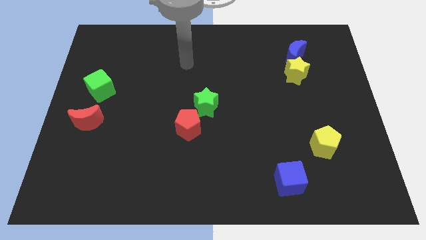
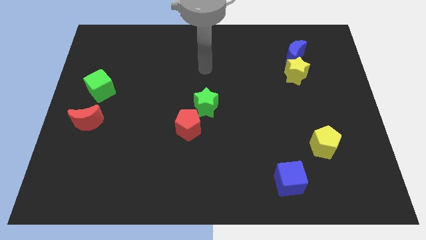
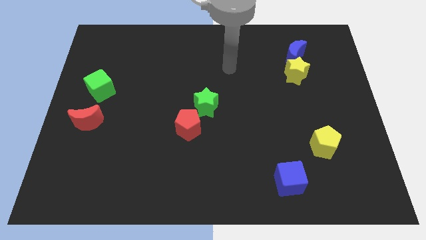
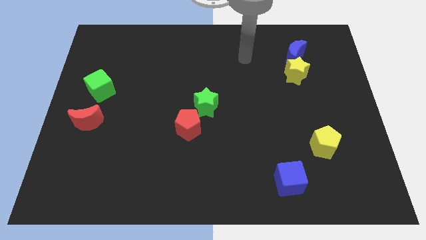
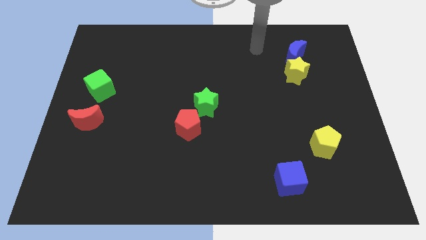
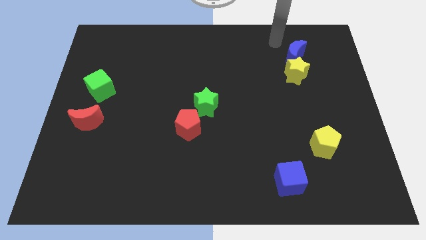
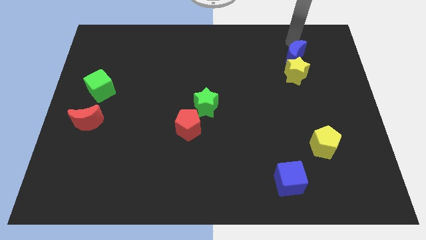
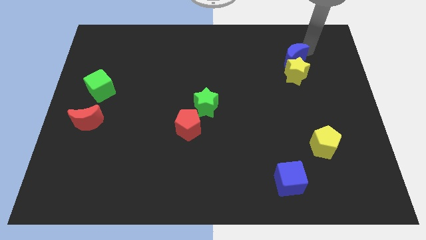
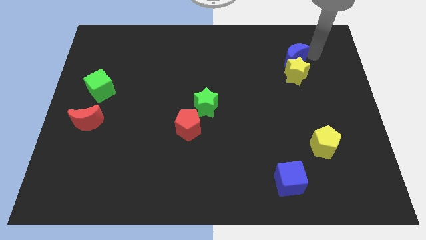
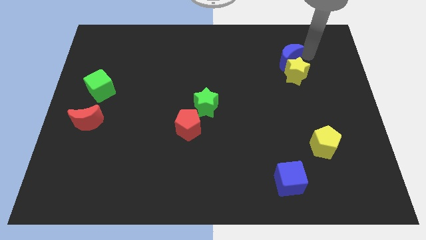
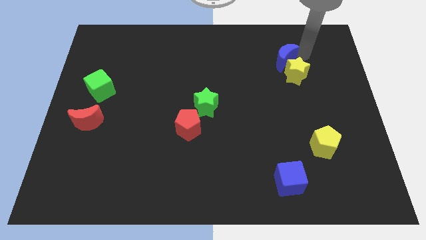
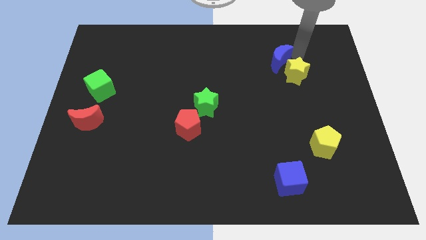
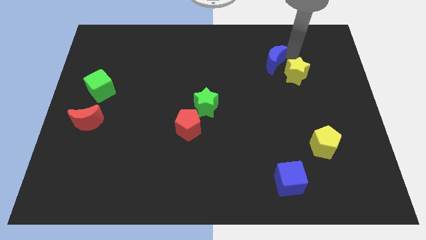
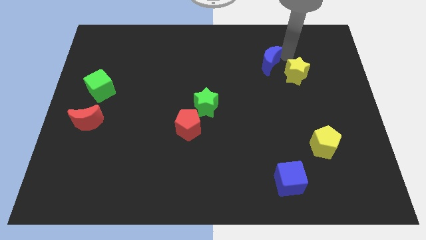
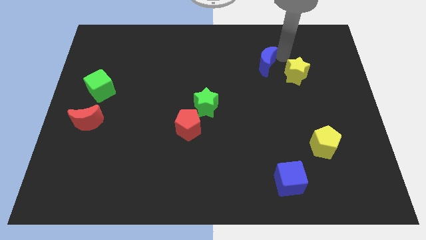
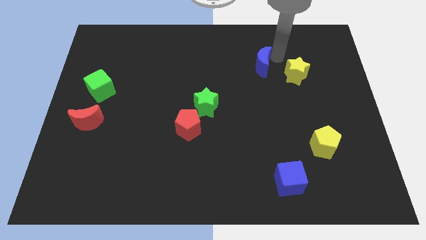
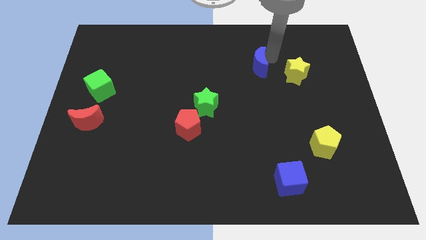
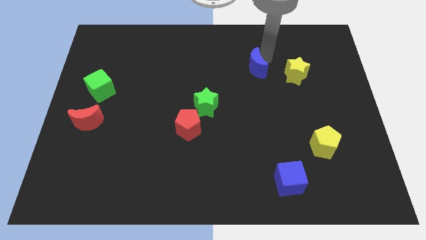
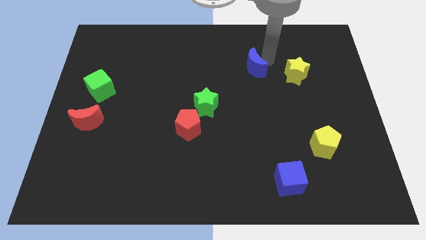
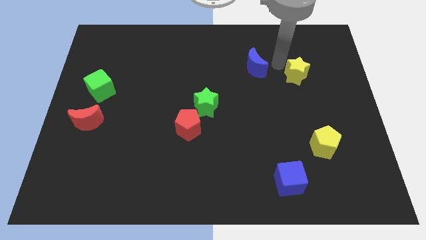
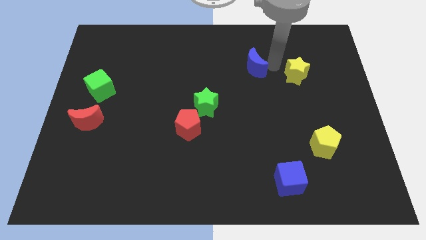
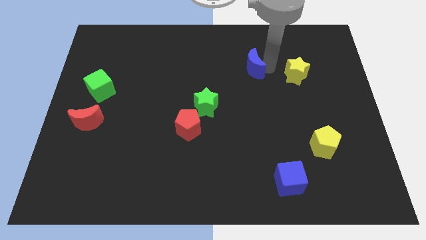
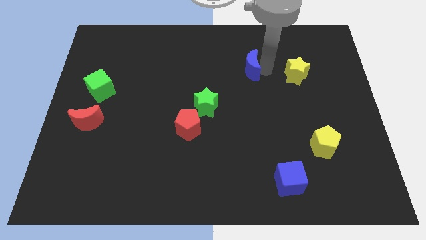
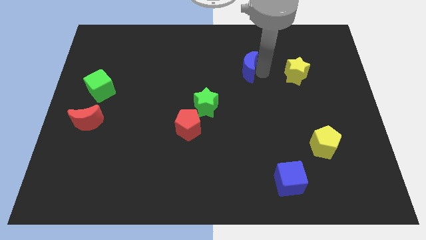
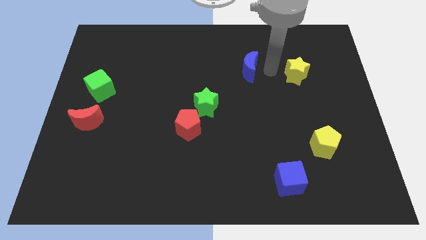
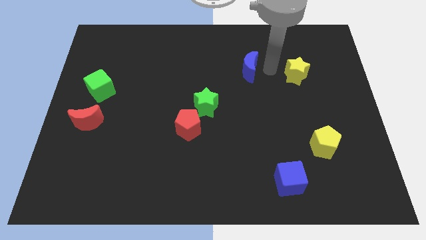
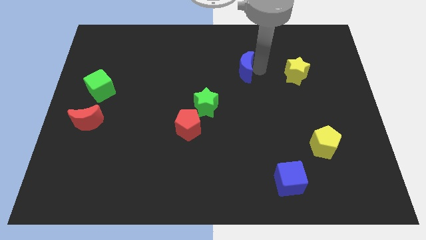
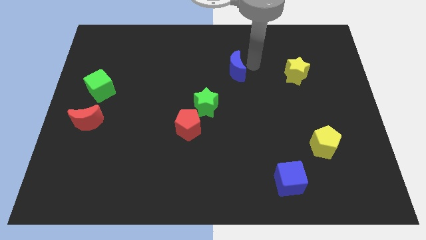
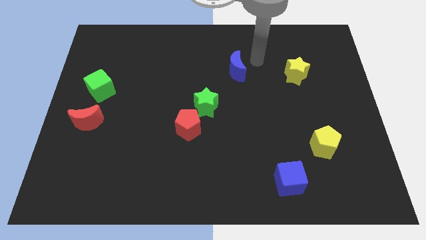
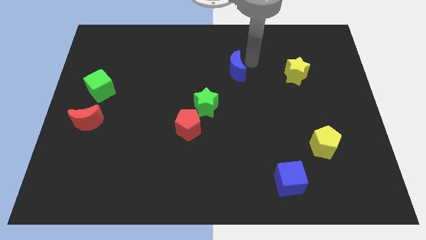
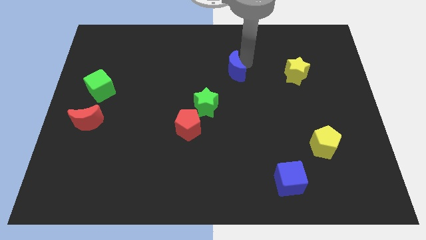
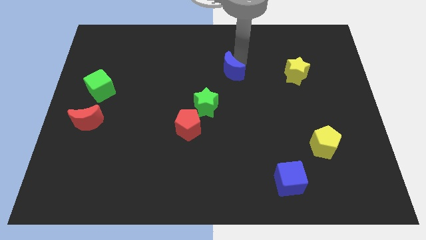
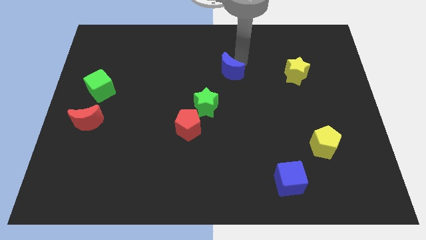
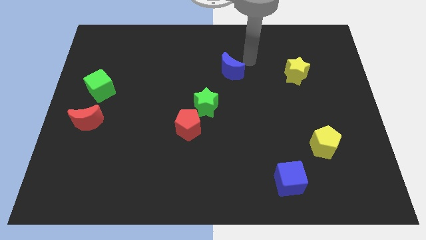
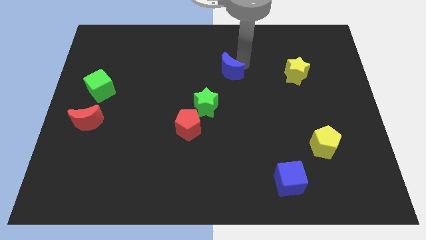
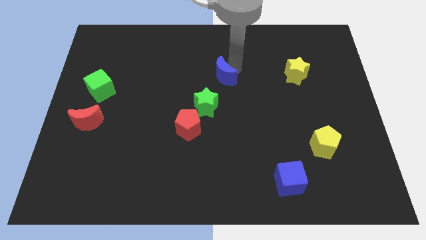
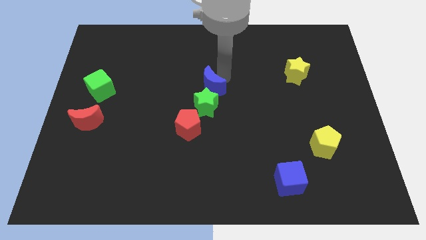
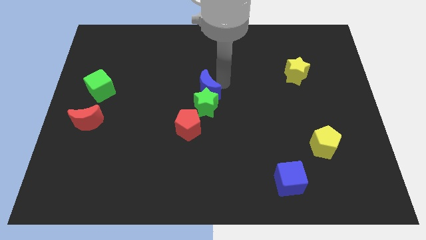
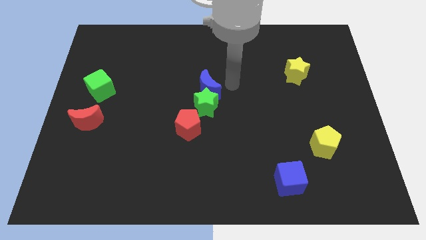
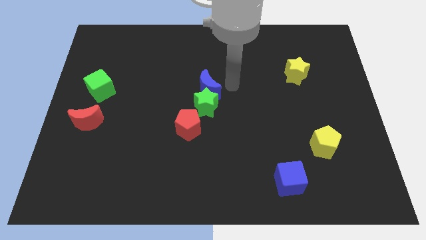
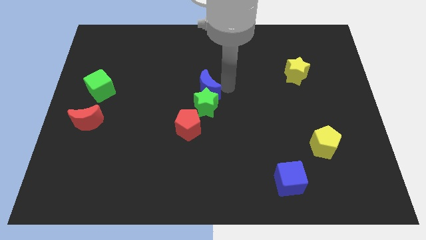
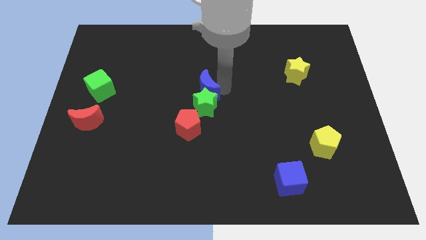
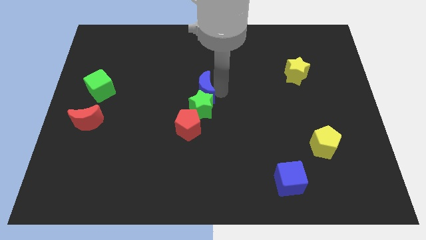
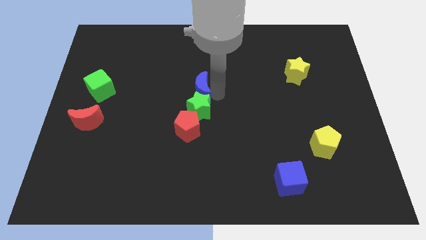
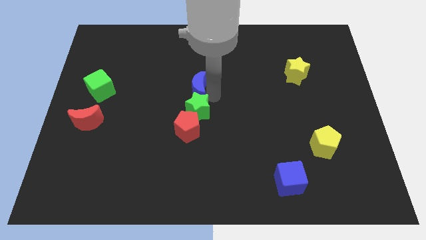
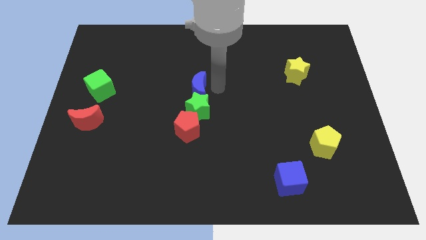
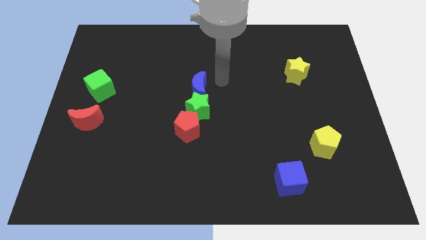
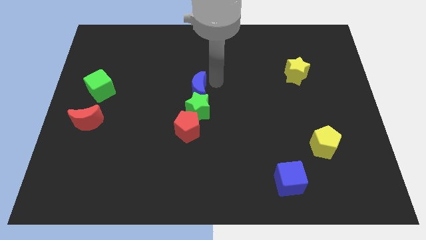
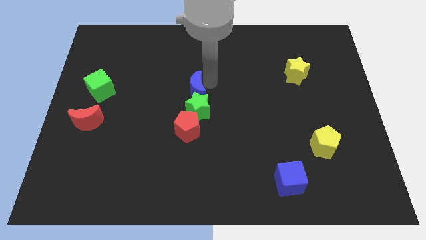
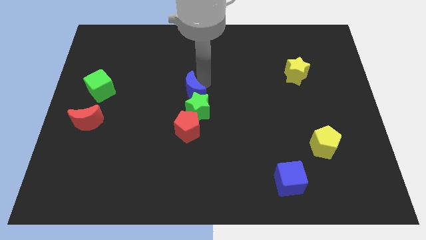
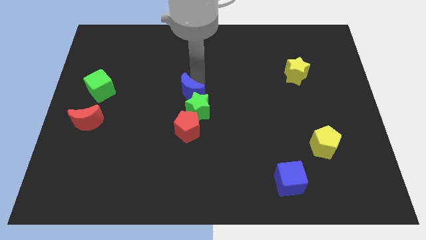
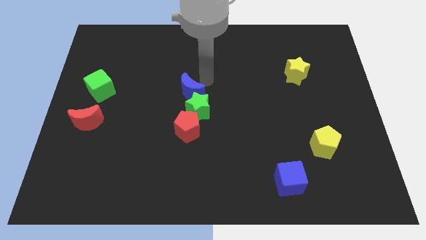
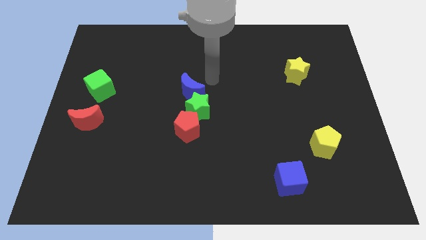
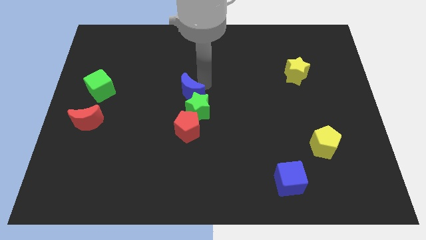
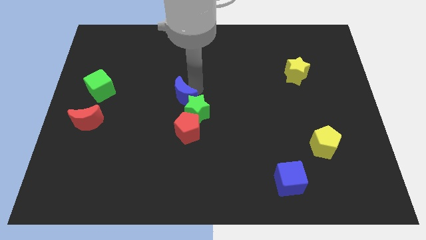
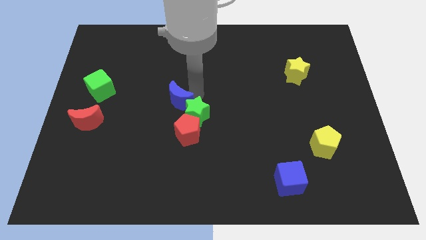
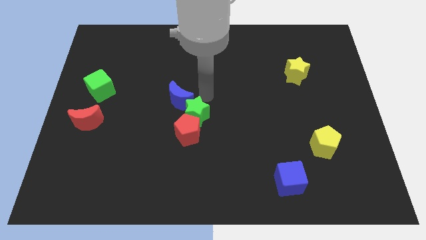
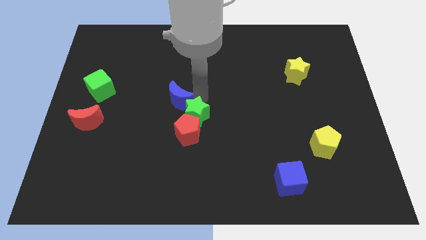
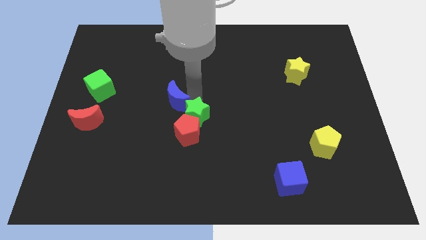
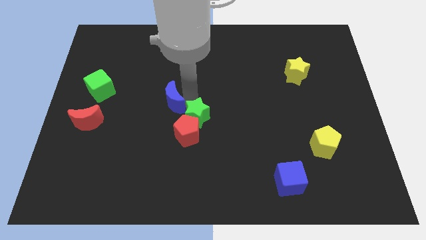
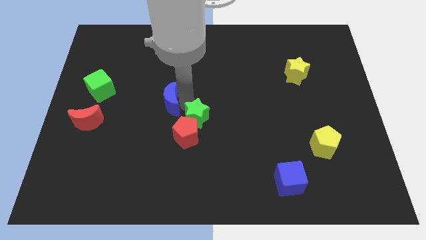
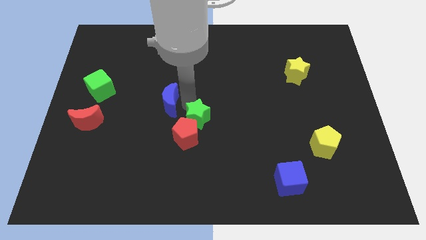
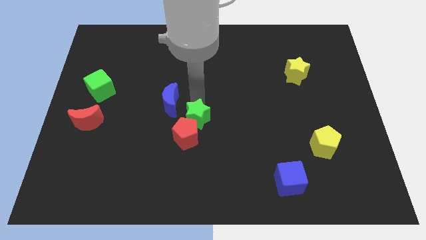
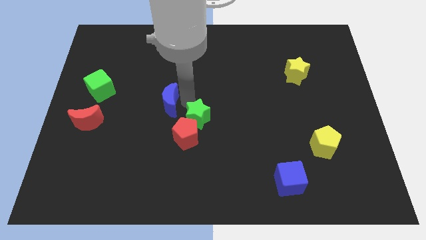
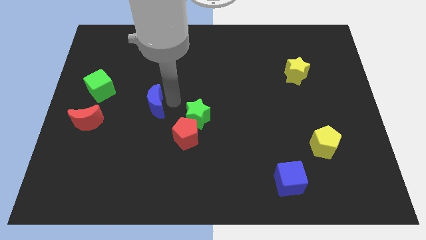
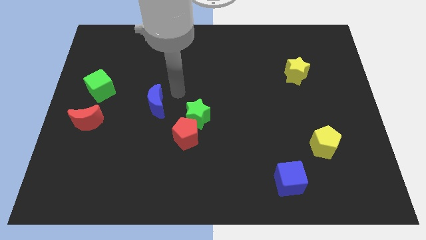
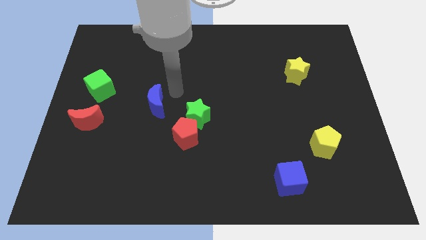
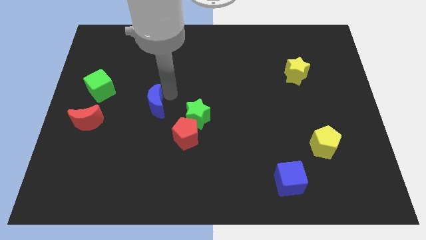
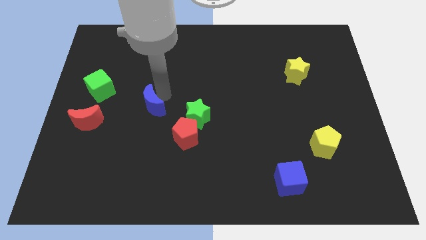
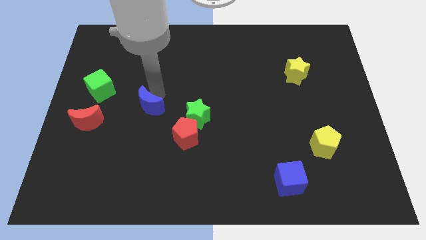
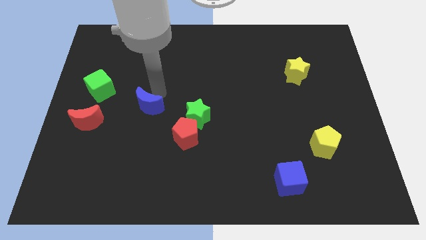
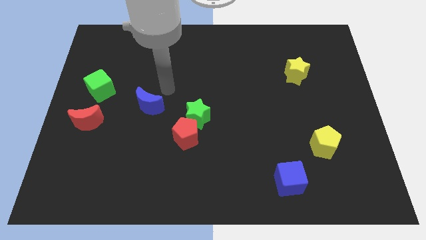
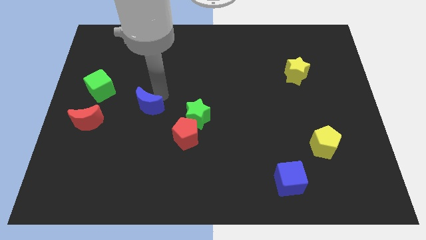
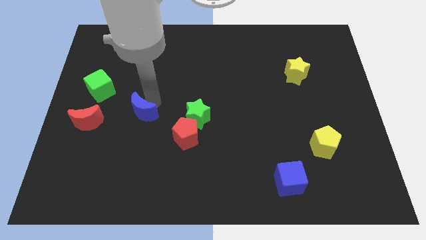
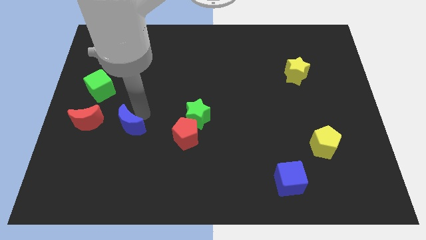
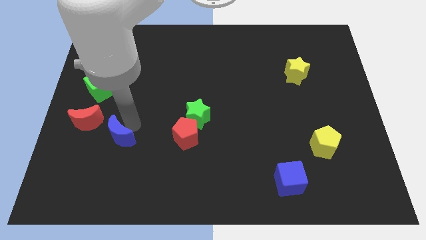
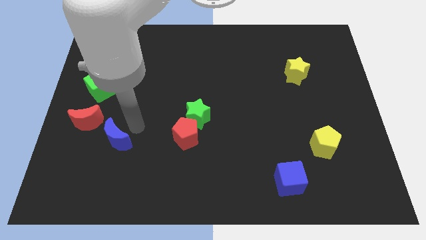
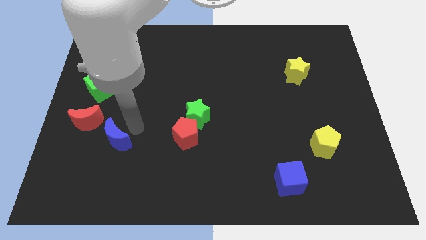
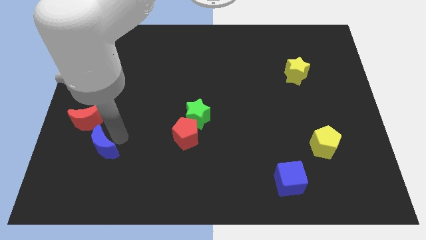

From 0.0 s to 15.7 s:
slide the blue moon to the bottom side of the red moon
